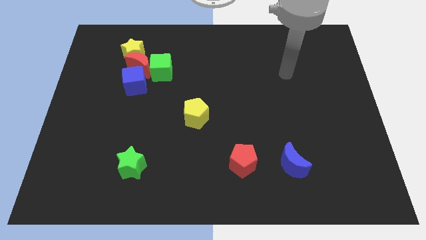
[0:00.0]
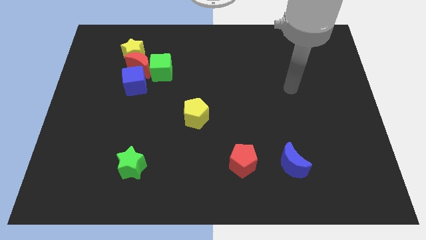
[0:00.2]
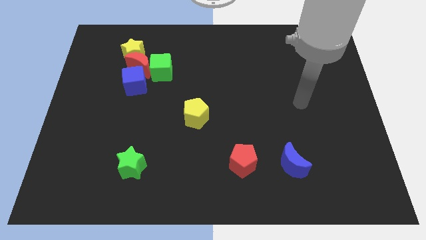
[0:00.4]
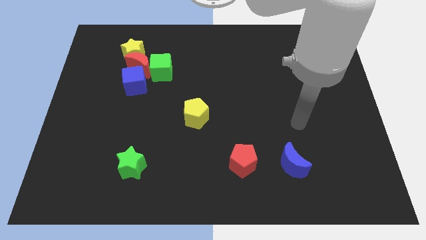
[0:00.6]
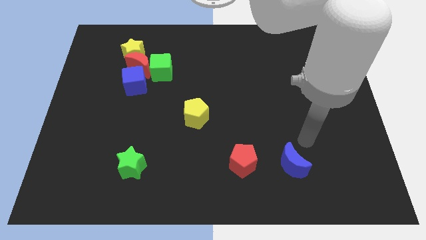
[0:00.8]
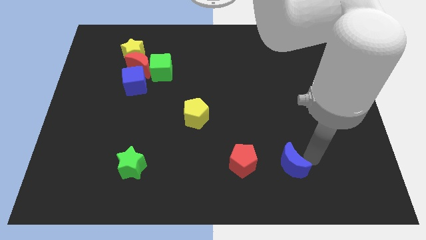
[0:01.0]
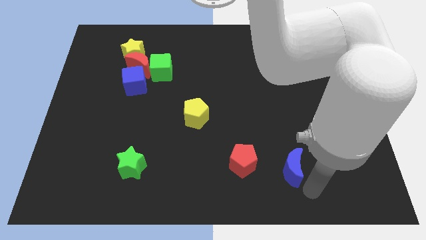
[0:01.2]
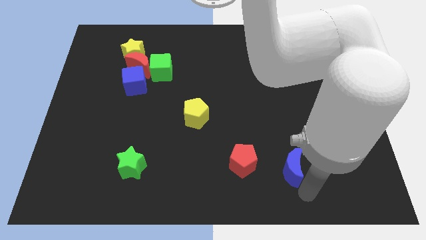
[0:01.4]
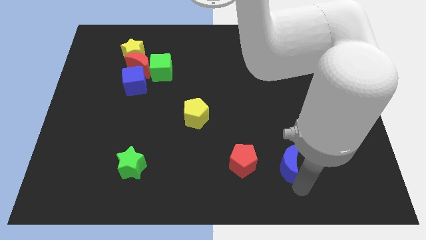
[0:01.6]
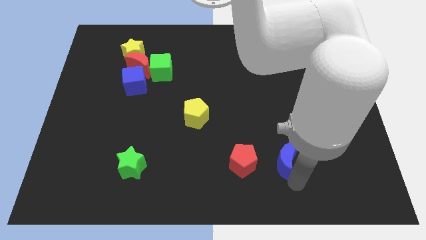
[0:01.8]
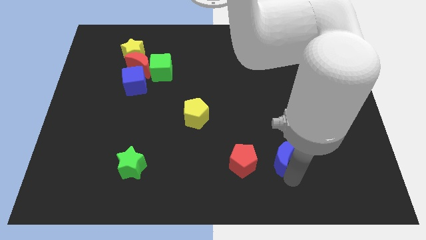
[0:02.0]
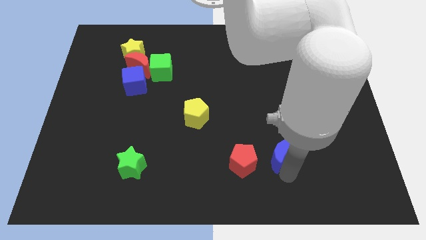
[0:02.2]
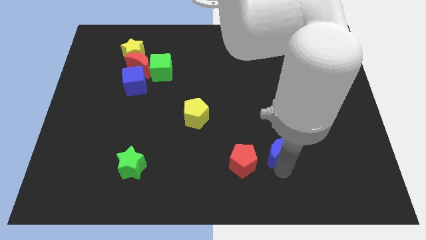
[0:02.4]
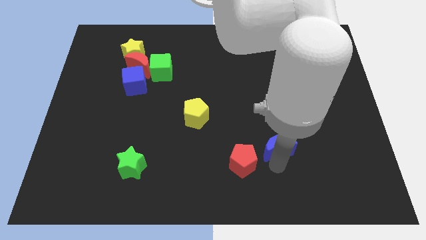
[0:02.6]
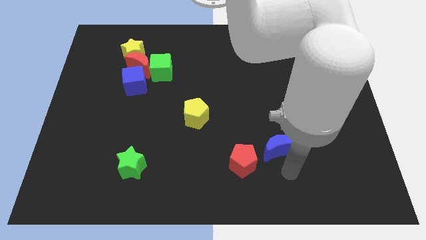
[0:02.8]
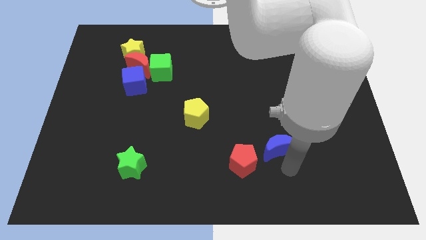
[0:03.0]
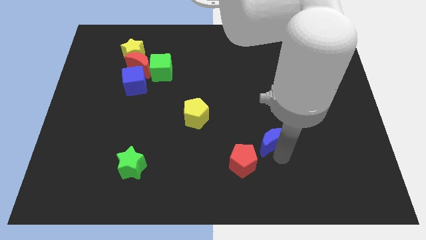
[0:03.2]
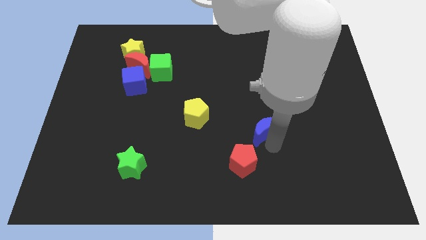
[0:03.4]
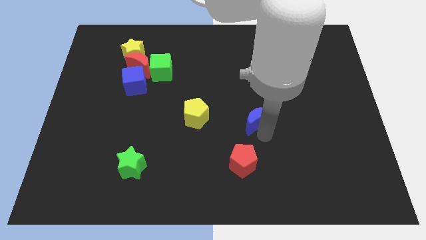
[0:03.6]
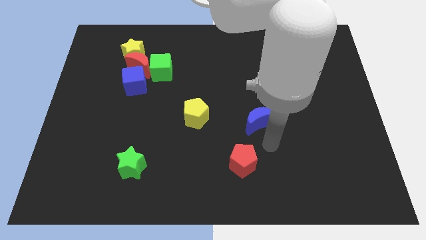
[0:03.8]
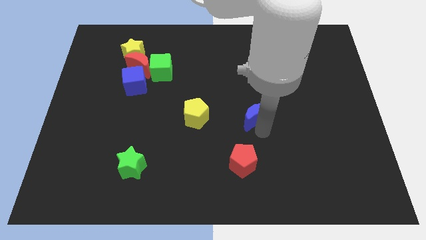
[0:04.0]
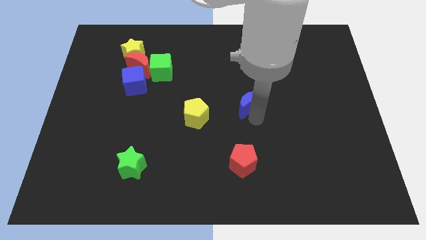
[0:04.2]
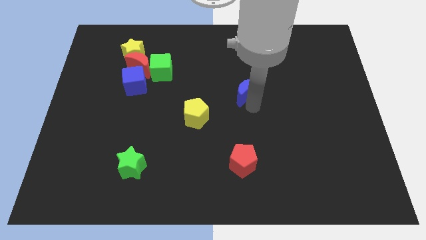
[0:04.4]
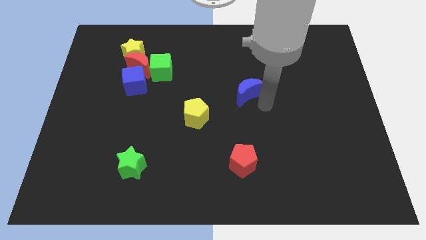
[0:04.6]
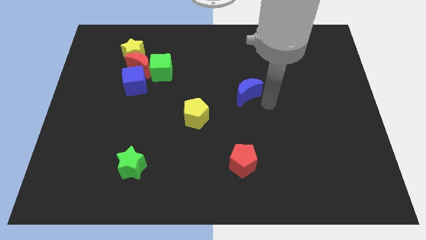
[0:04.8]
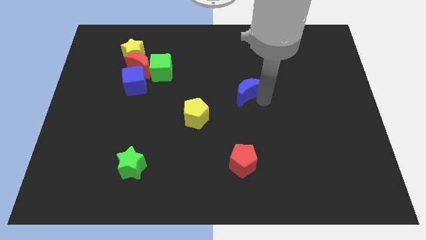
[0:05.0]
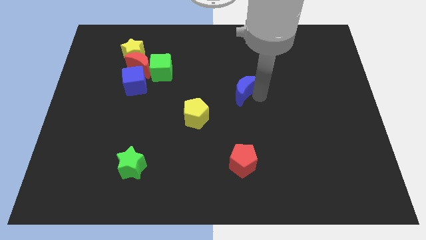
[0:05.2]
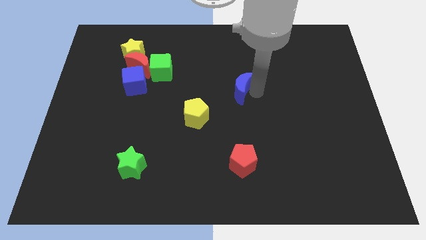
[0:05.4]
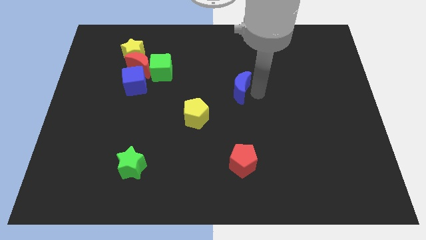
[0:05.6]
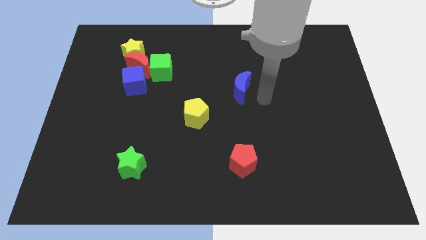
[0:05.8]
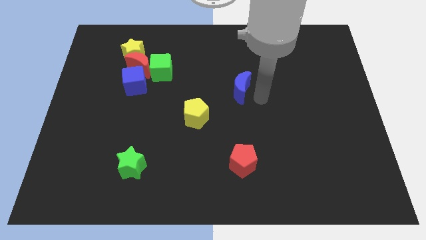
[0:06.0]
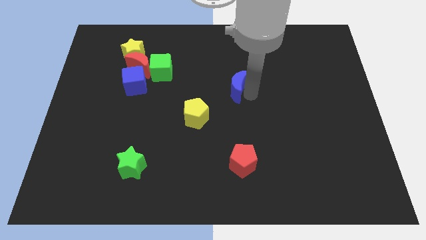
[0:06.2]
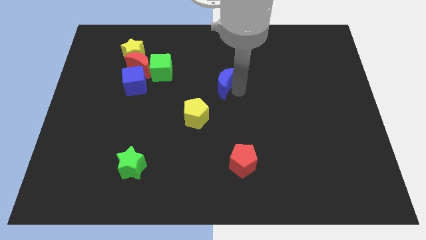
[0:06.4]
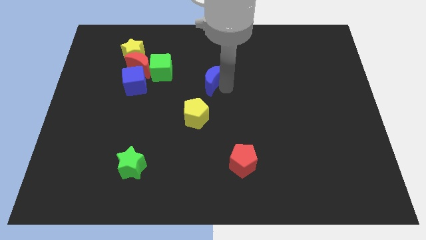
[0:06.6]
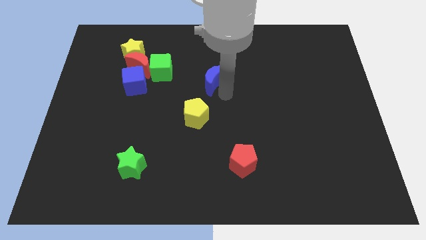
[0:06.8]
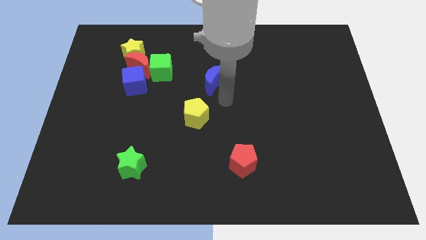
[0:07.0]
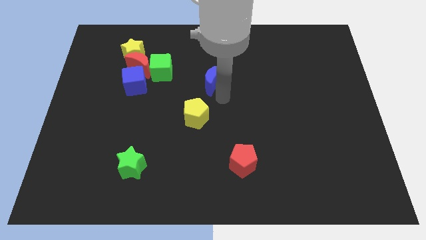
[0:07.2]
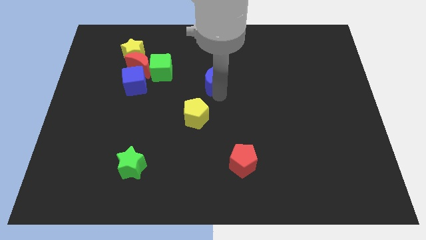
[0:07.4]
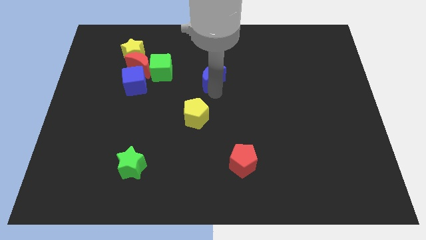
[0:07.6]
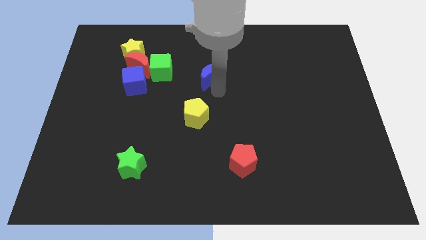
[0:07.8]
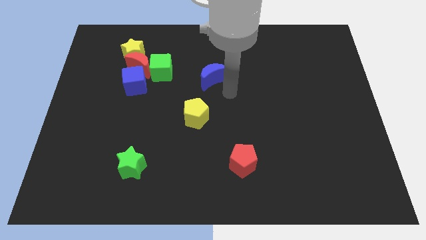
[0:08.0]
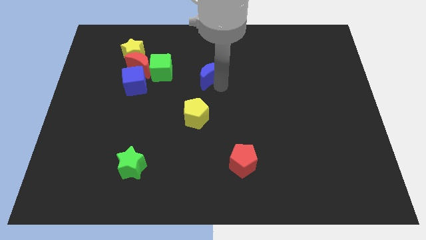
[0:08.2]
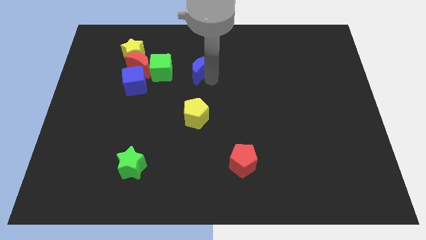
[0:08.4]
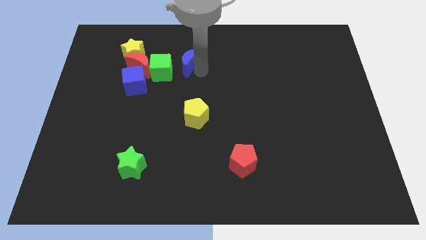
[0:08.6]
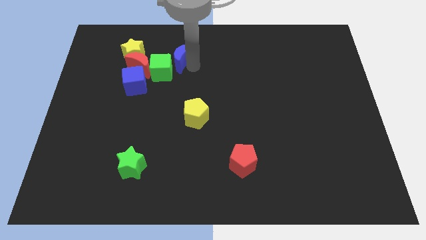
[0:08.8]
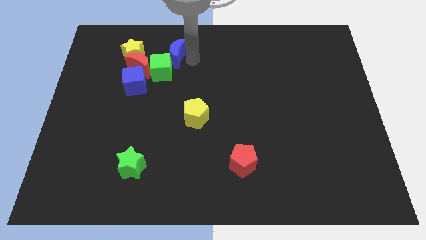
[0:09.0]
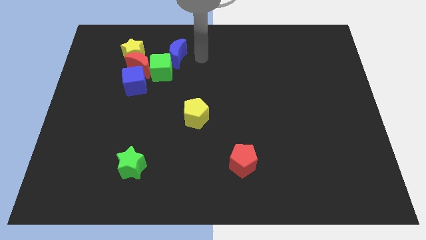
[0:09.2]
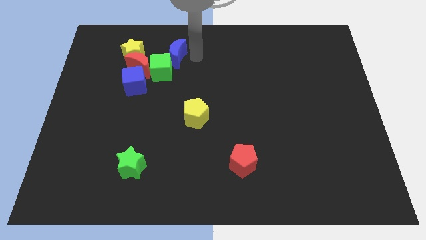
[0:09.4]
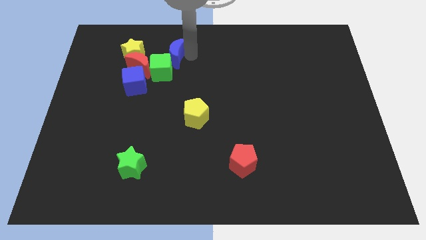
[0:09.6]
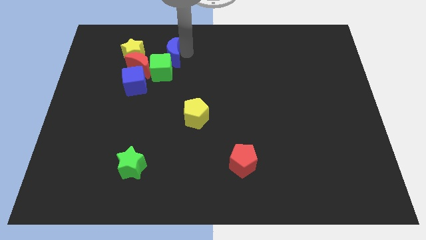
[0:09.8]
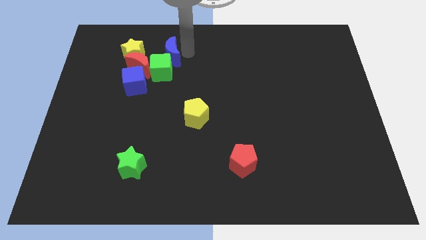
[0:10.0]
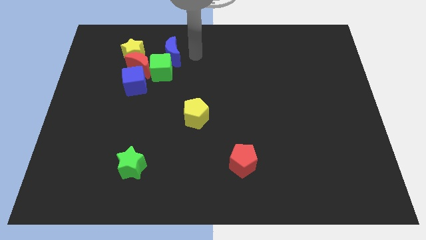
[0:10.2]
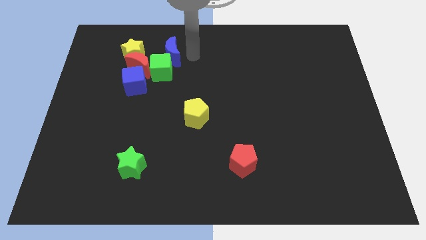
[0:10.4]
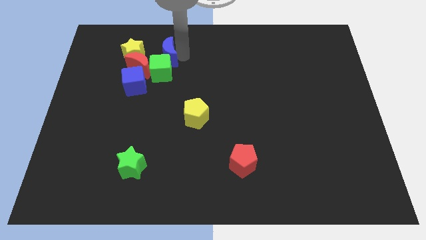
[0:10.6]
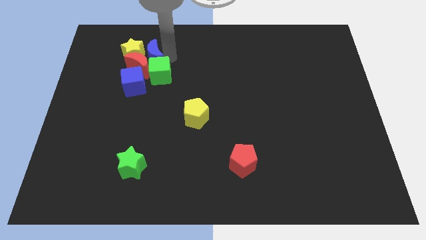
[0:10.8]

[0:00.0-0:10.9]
push the blue moon close to the yellow star

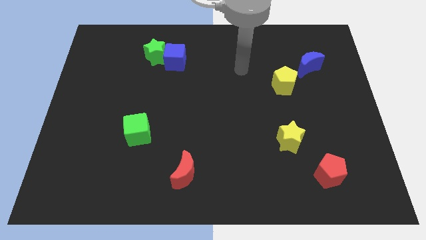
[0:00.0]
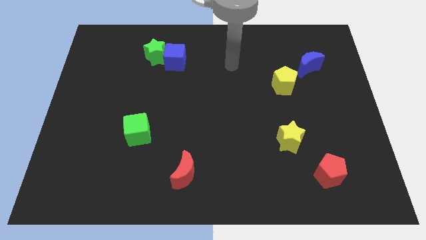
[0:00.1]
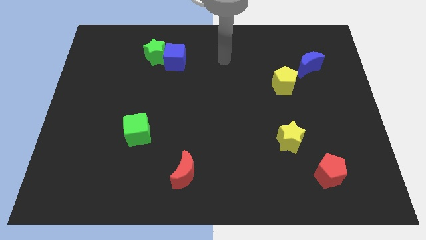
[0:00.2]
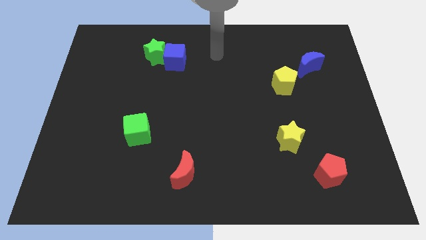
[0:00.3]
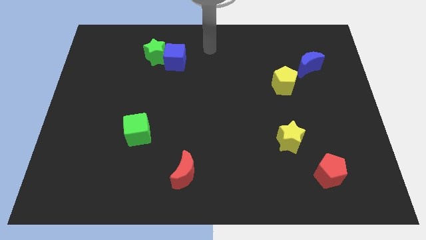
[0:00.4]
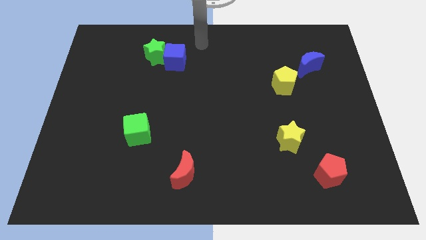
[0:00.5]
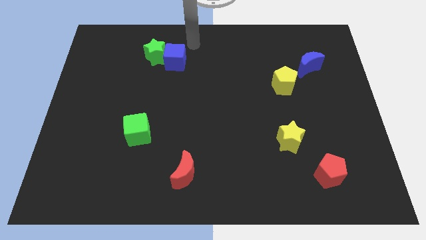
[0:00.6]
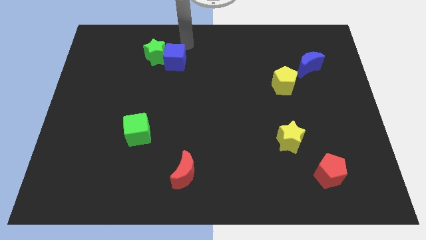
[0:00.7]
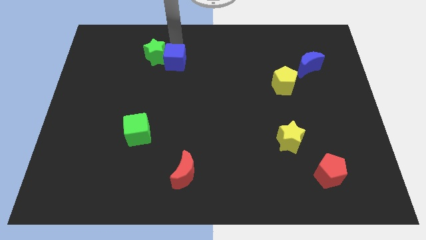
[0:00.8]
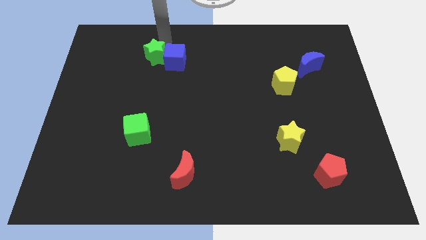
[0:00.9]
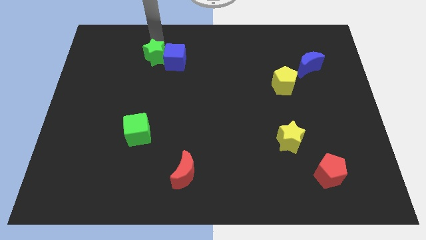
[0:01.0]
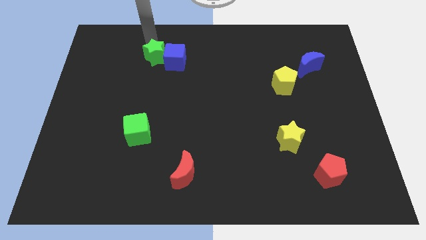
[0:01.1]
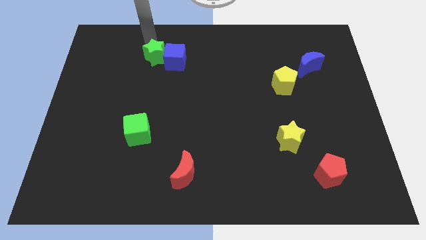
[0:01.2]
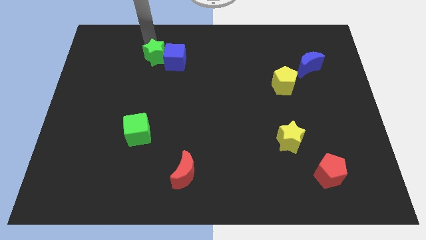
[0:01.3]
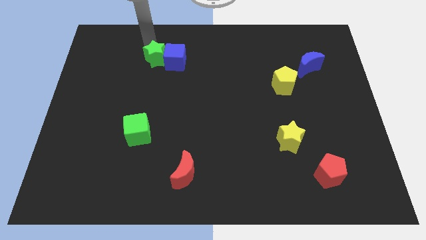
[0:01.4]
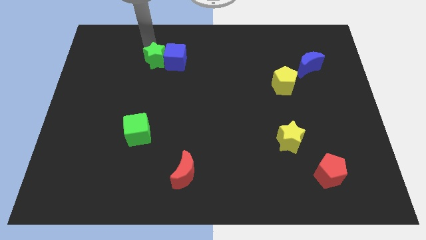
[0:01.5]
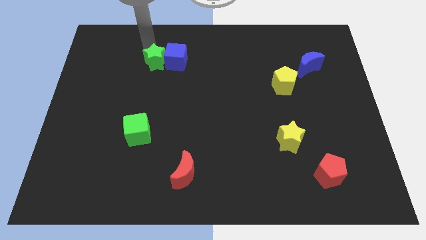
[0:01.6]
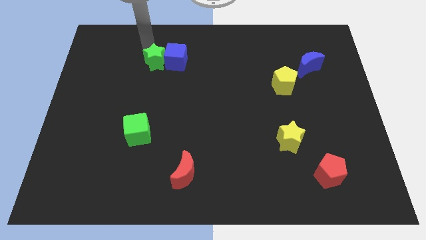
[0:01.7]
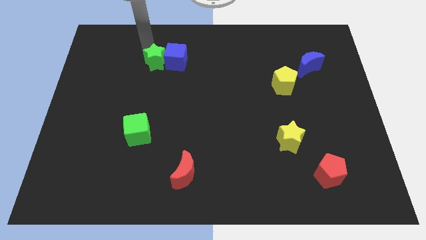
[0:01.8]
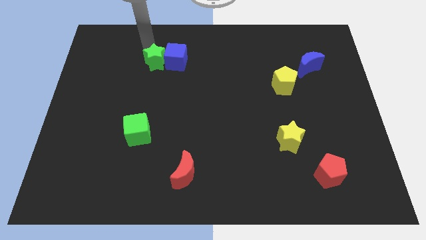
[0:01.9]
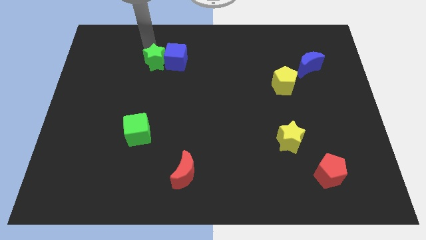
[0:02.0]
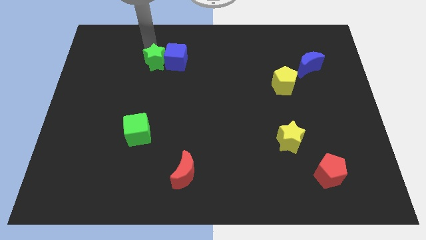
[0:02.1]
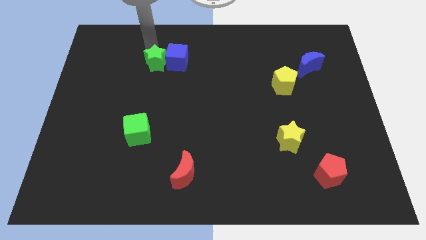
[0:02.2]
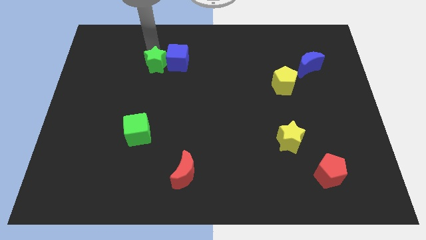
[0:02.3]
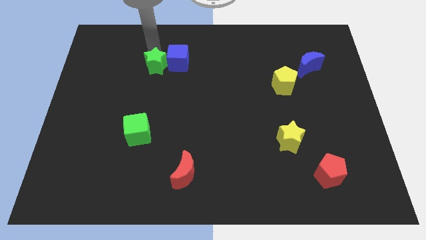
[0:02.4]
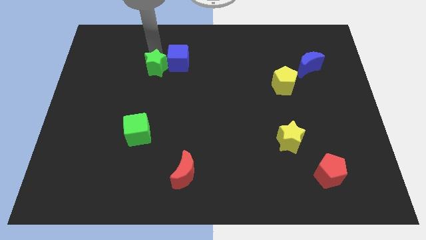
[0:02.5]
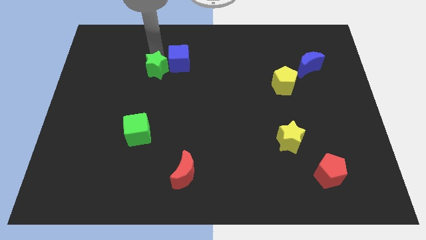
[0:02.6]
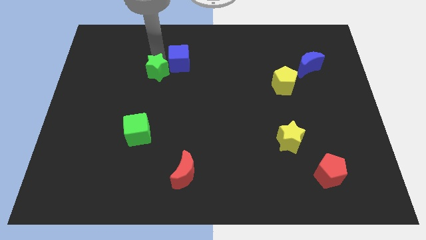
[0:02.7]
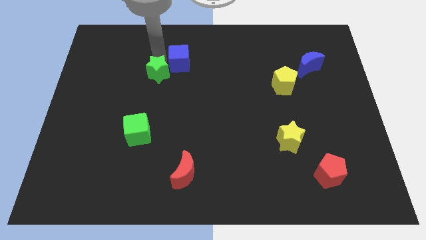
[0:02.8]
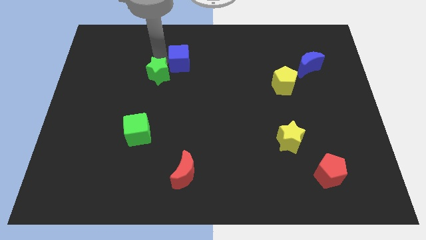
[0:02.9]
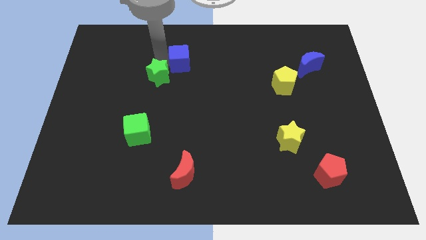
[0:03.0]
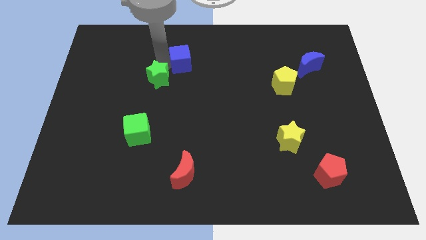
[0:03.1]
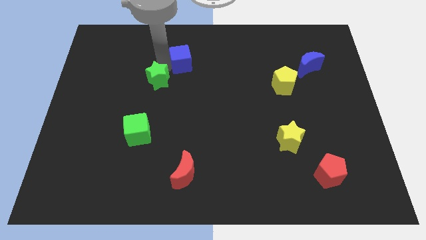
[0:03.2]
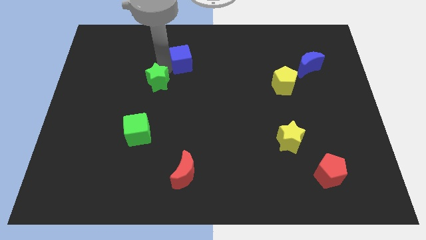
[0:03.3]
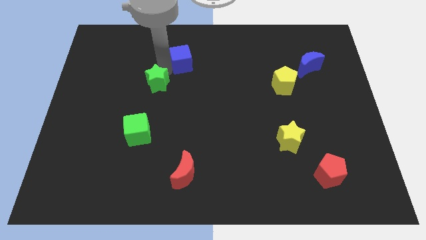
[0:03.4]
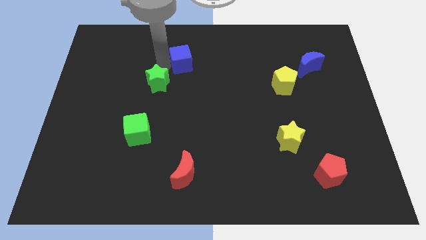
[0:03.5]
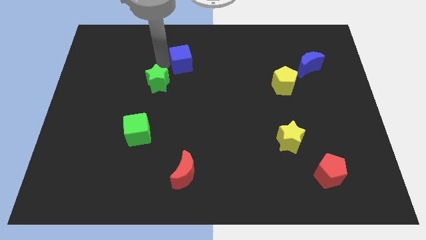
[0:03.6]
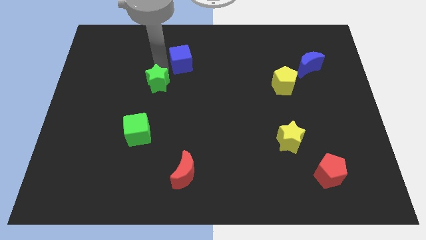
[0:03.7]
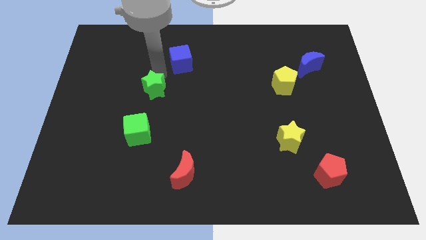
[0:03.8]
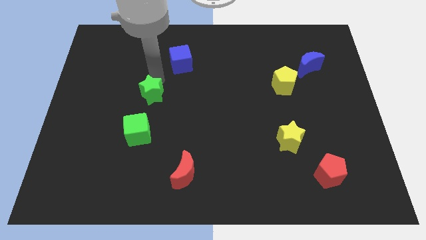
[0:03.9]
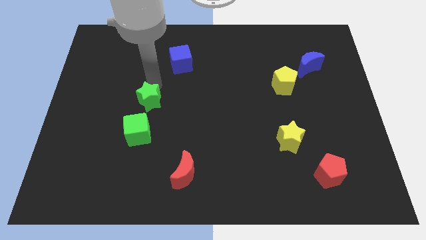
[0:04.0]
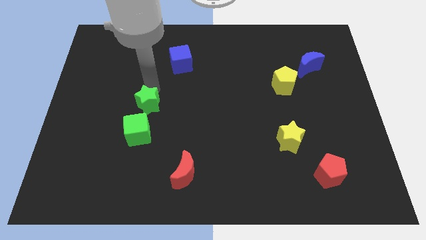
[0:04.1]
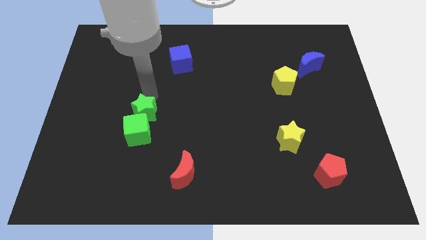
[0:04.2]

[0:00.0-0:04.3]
put the green star next to the green cube
